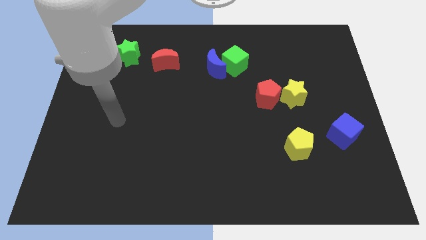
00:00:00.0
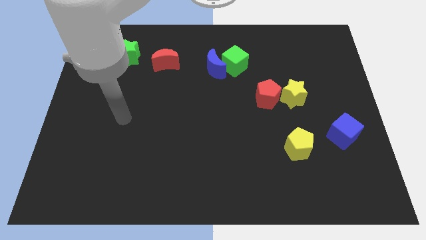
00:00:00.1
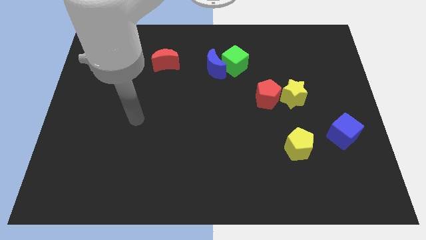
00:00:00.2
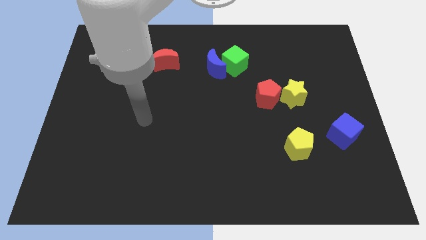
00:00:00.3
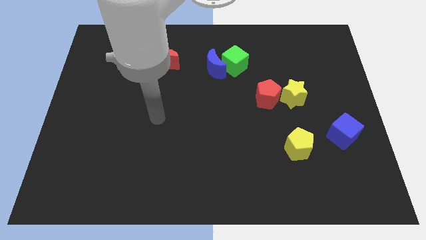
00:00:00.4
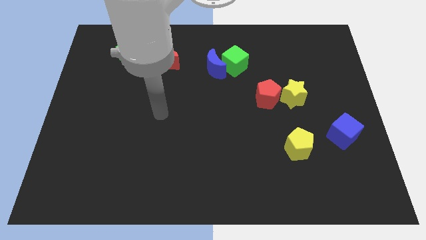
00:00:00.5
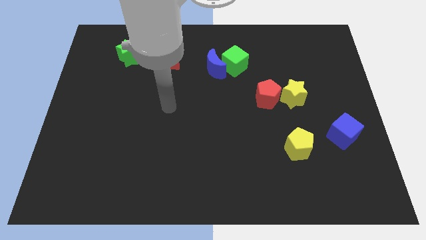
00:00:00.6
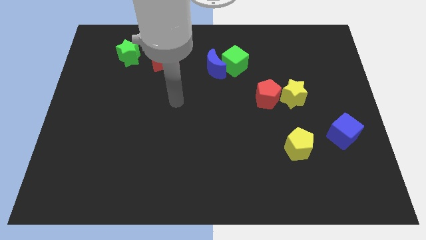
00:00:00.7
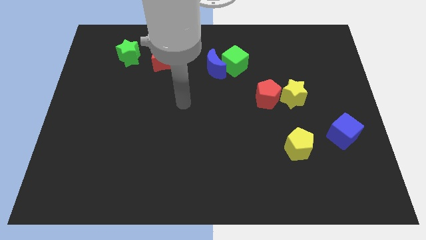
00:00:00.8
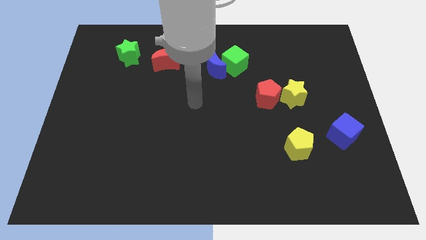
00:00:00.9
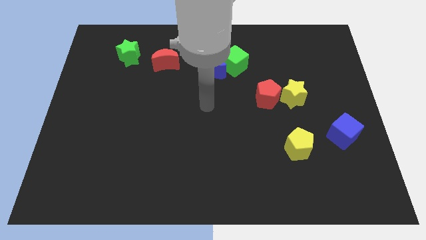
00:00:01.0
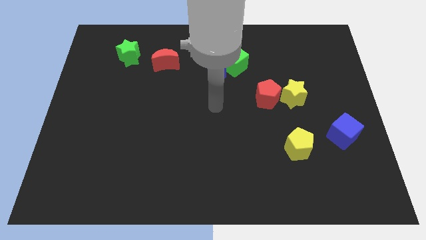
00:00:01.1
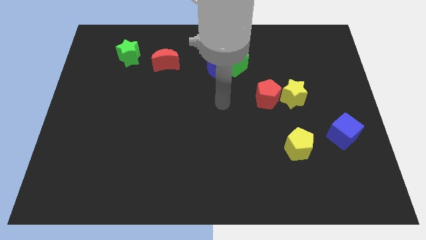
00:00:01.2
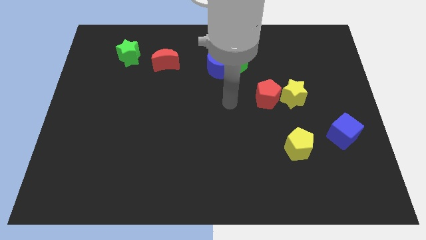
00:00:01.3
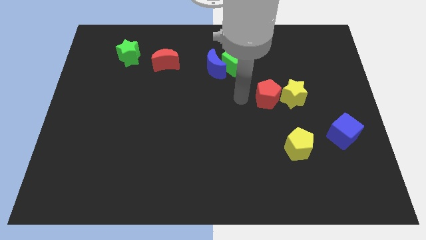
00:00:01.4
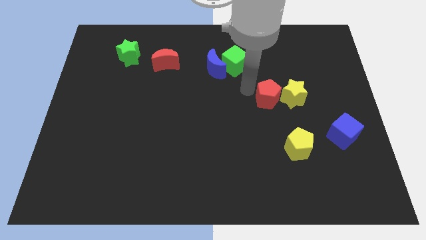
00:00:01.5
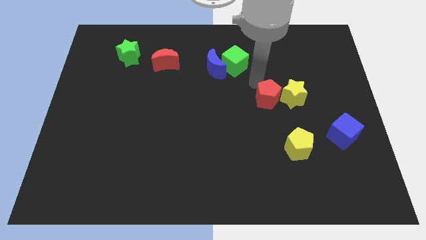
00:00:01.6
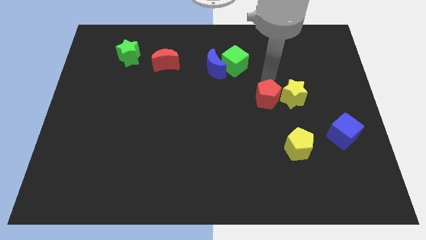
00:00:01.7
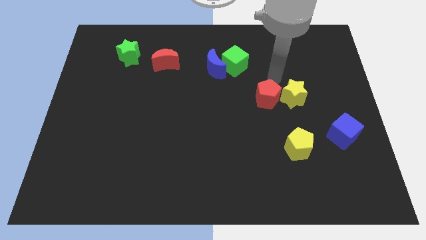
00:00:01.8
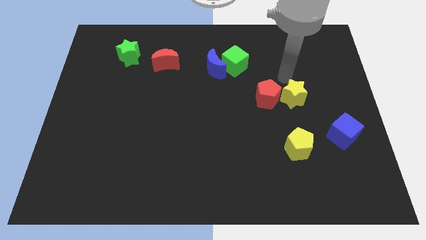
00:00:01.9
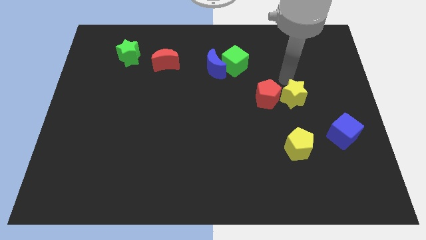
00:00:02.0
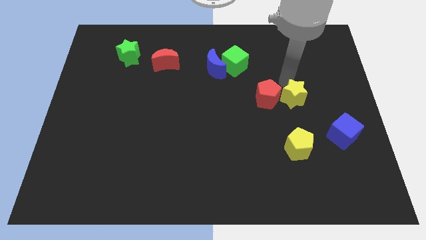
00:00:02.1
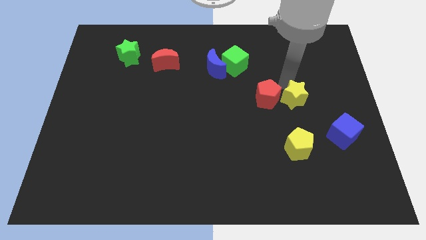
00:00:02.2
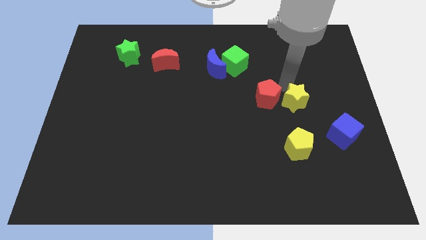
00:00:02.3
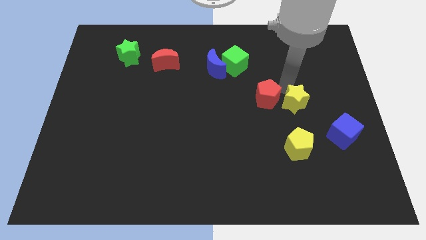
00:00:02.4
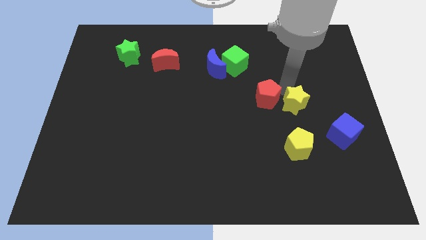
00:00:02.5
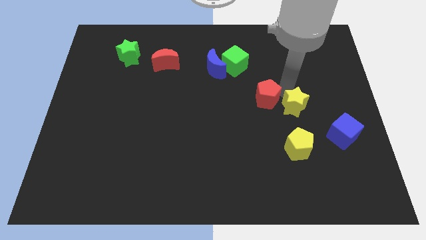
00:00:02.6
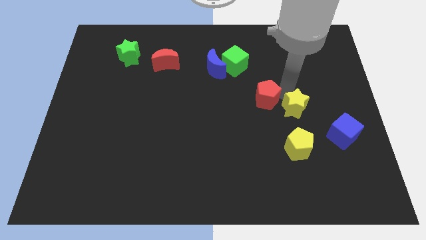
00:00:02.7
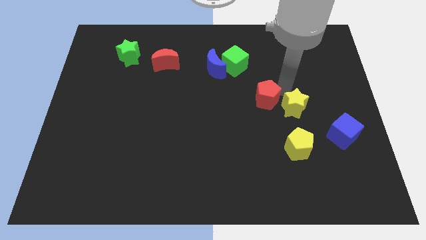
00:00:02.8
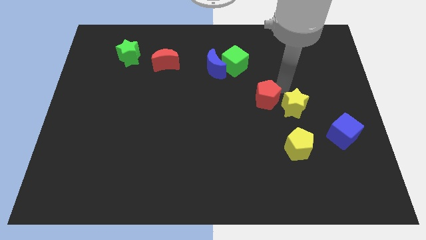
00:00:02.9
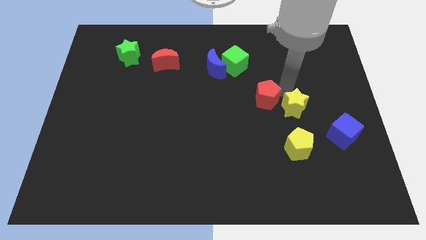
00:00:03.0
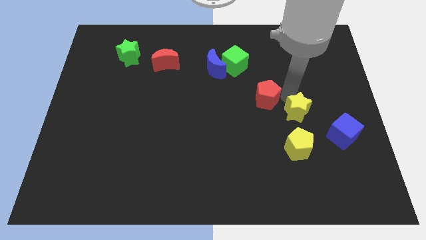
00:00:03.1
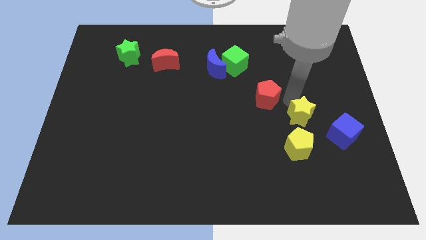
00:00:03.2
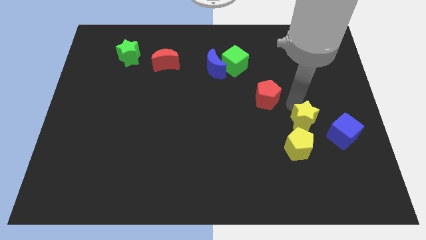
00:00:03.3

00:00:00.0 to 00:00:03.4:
slide the yellow star down a little

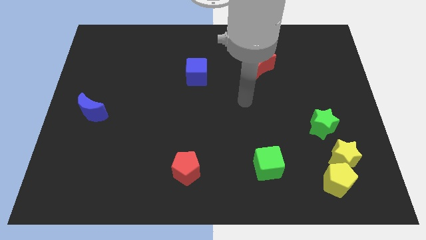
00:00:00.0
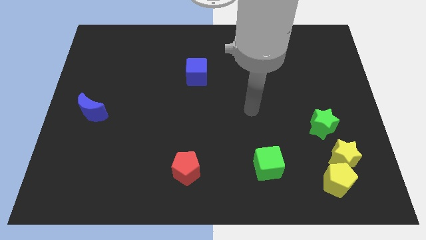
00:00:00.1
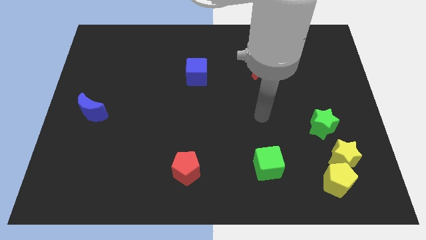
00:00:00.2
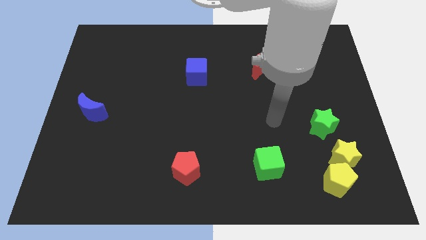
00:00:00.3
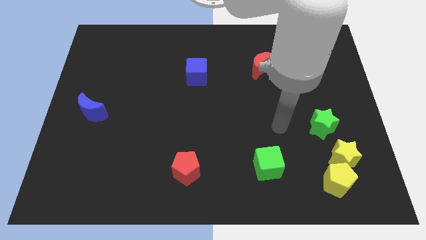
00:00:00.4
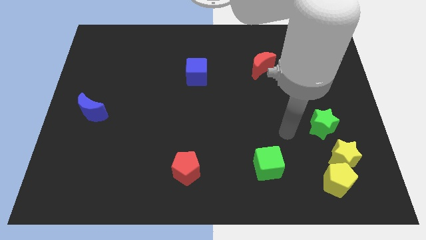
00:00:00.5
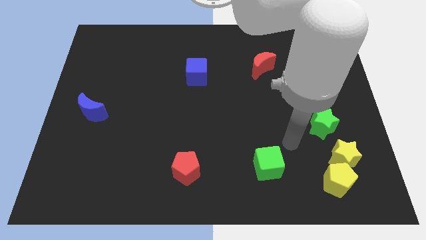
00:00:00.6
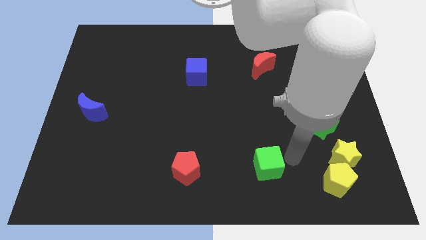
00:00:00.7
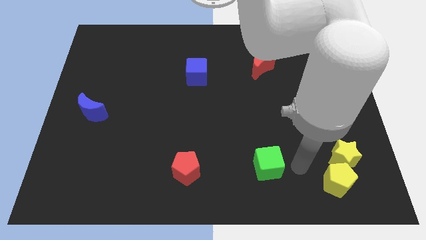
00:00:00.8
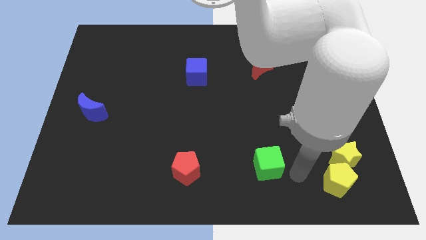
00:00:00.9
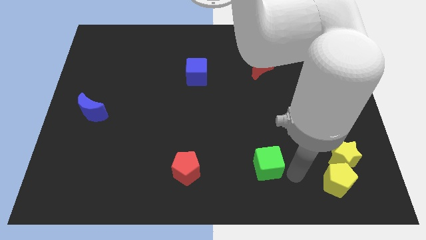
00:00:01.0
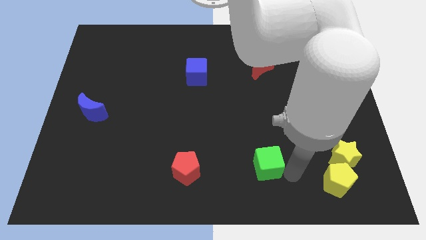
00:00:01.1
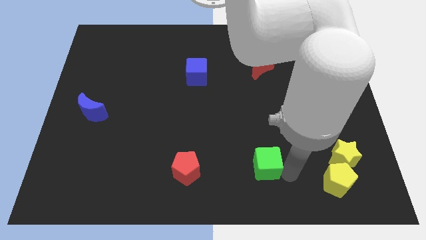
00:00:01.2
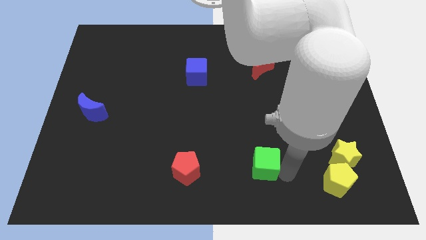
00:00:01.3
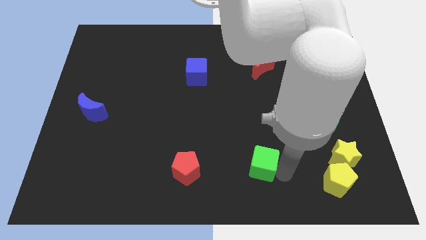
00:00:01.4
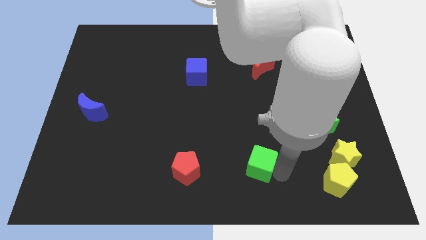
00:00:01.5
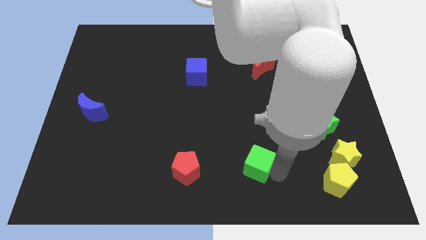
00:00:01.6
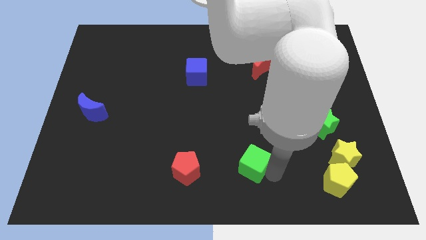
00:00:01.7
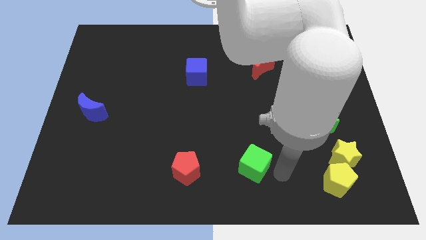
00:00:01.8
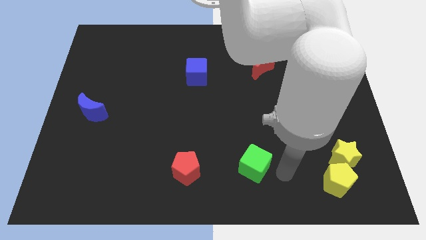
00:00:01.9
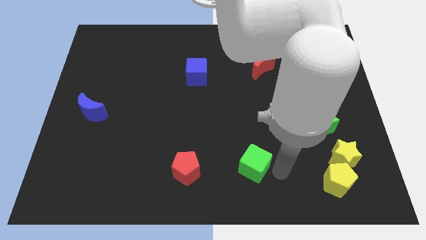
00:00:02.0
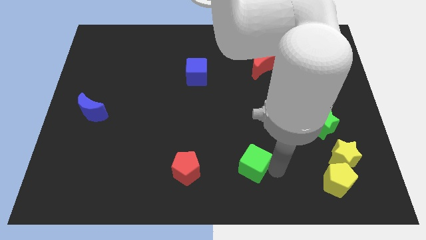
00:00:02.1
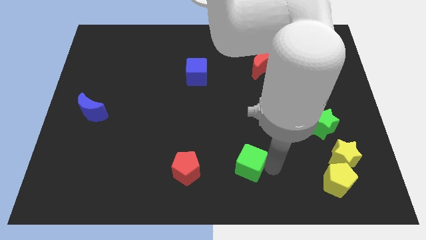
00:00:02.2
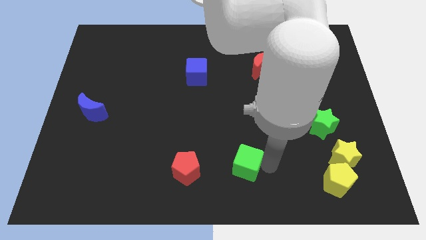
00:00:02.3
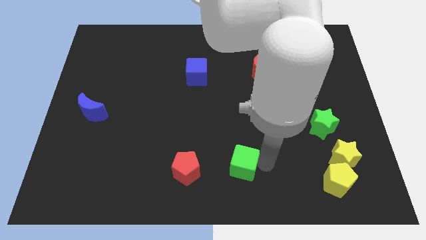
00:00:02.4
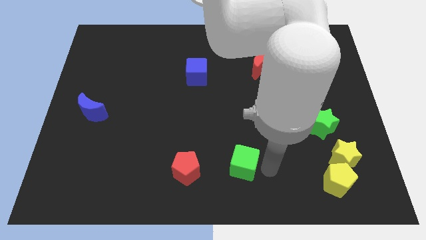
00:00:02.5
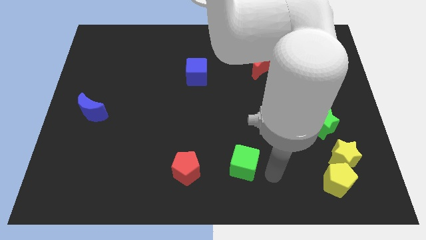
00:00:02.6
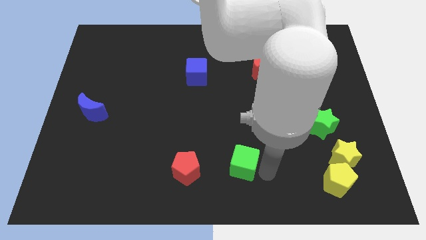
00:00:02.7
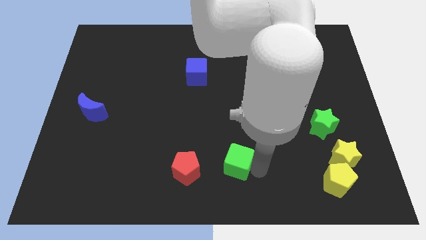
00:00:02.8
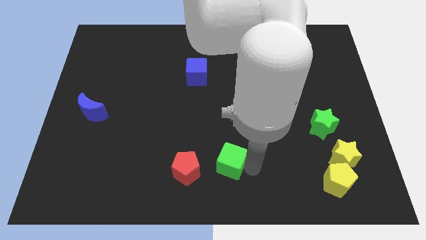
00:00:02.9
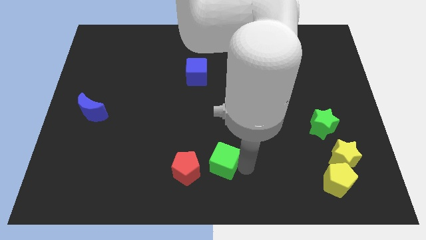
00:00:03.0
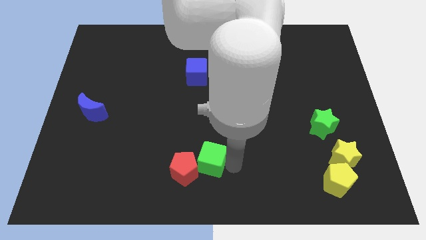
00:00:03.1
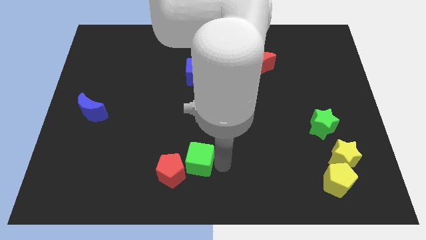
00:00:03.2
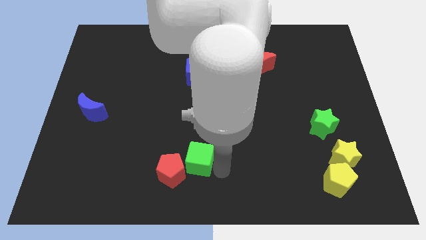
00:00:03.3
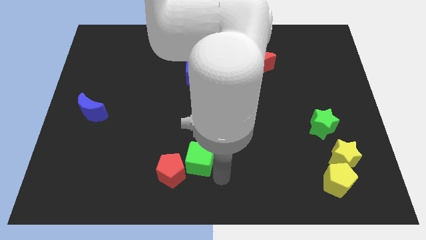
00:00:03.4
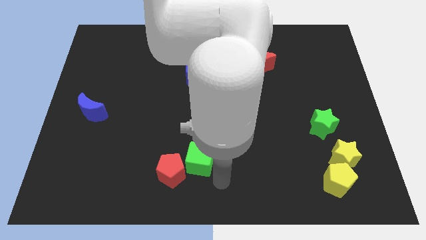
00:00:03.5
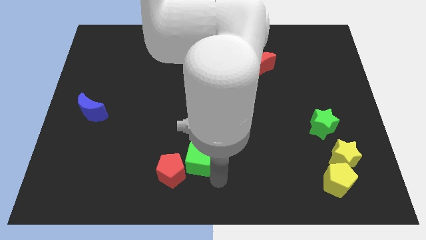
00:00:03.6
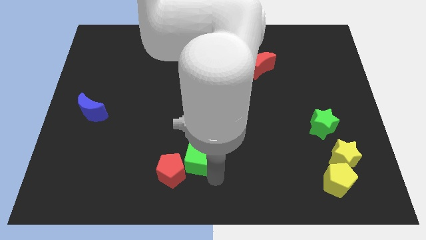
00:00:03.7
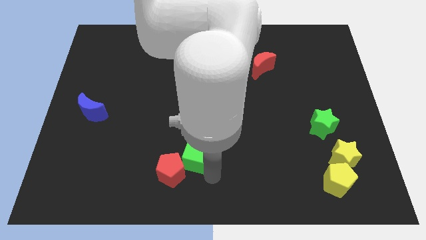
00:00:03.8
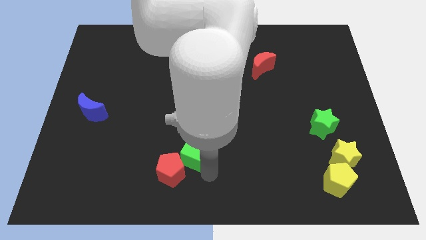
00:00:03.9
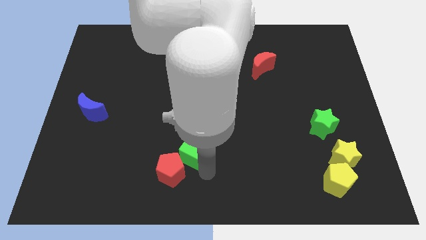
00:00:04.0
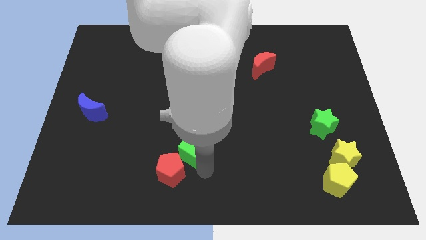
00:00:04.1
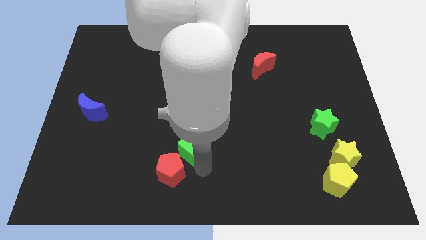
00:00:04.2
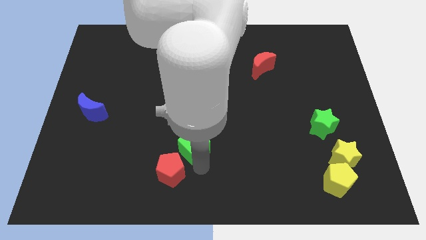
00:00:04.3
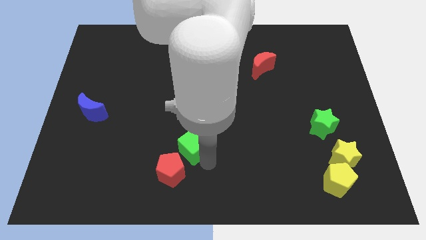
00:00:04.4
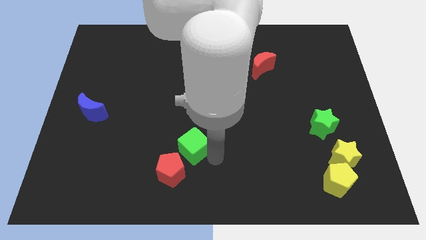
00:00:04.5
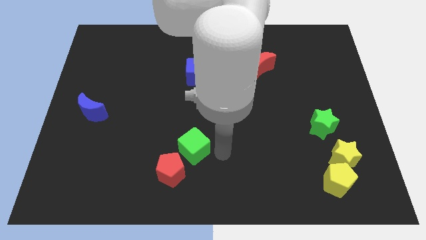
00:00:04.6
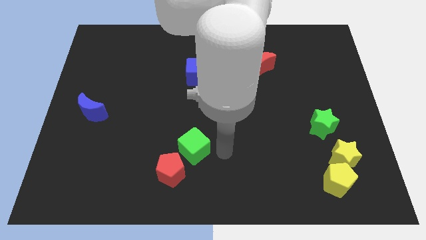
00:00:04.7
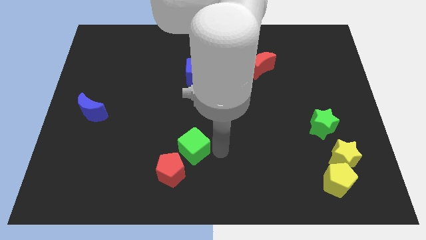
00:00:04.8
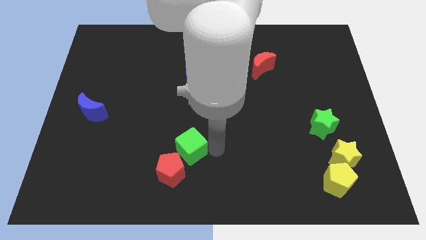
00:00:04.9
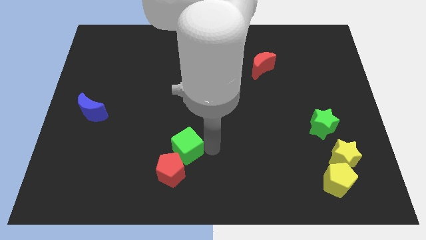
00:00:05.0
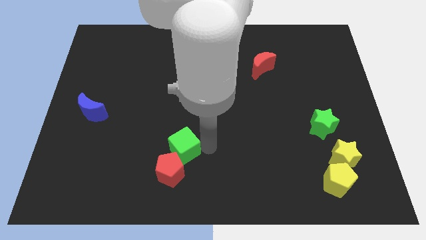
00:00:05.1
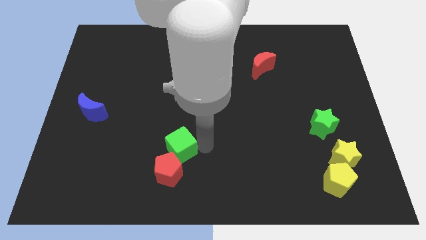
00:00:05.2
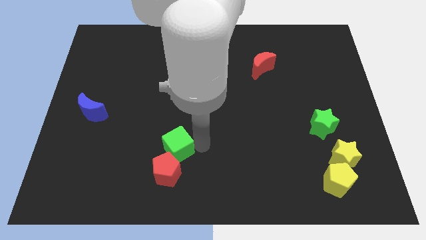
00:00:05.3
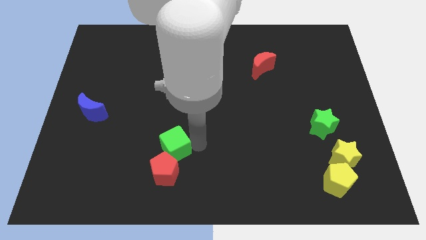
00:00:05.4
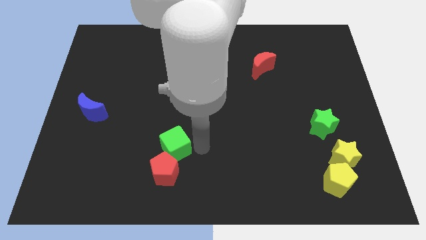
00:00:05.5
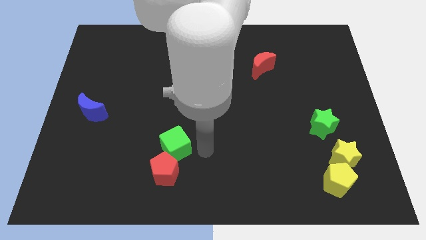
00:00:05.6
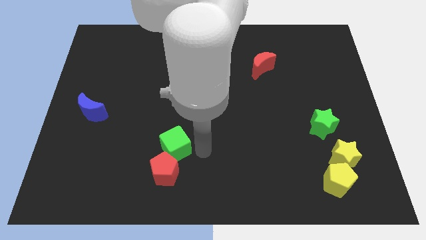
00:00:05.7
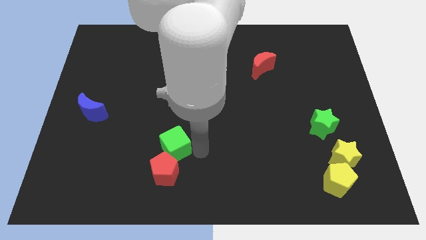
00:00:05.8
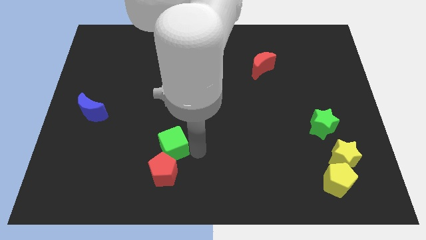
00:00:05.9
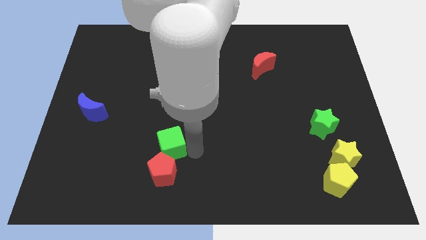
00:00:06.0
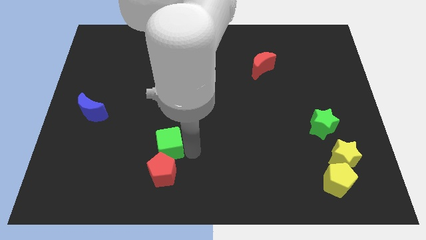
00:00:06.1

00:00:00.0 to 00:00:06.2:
slide the green cube left
